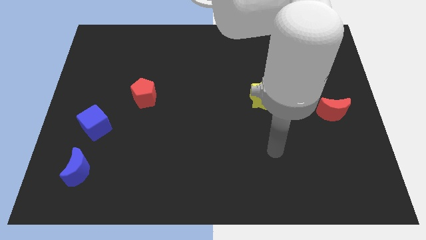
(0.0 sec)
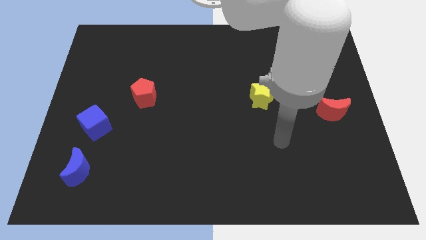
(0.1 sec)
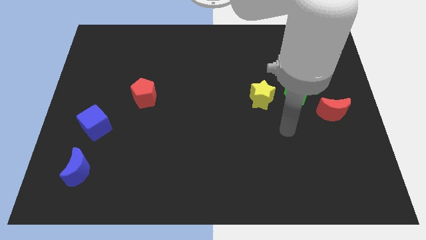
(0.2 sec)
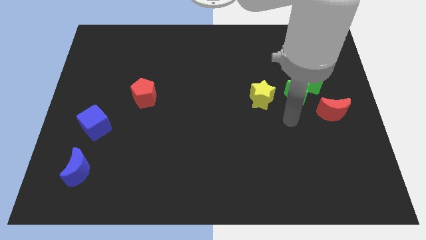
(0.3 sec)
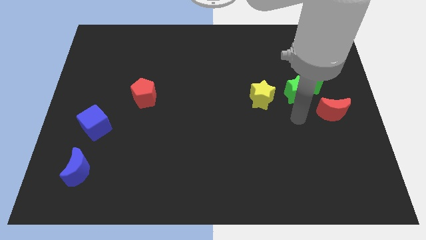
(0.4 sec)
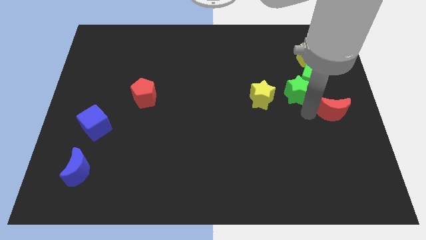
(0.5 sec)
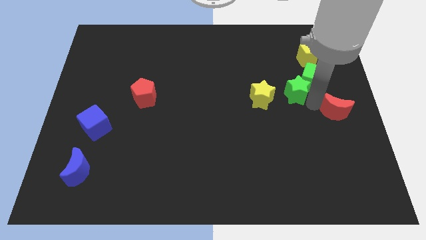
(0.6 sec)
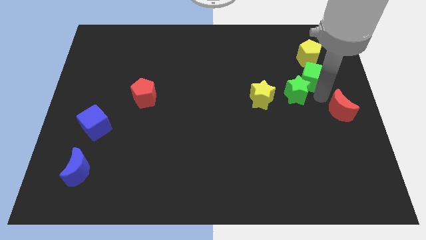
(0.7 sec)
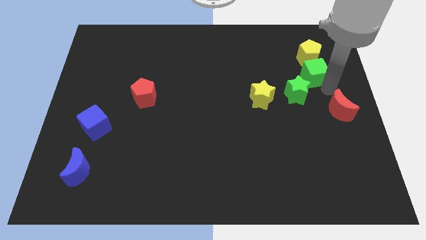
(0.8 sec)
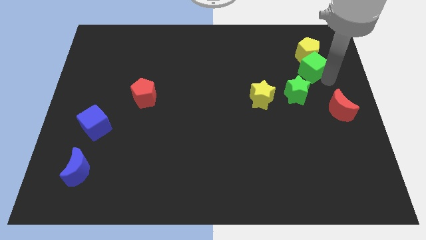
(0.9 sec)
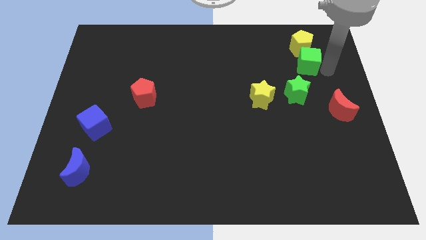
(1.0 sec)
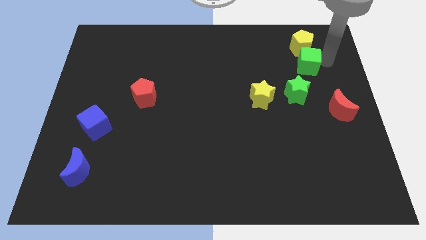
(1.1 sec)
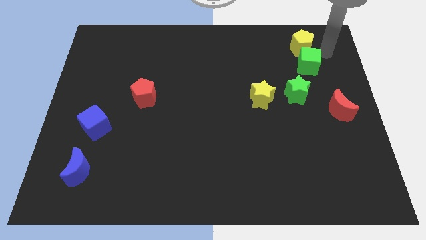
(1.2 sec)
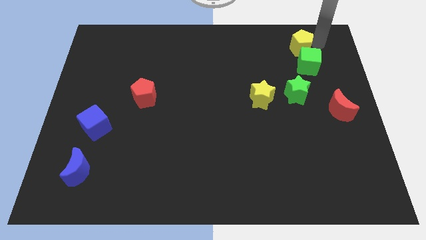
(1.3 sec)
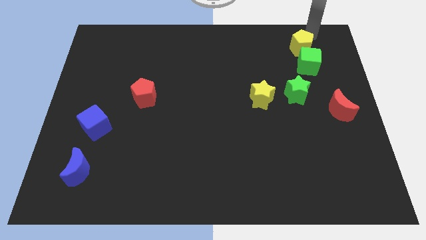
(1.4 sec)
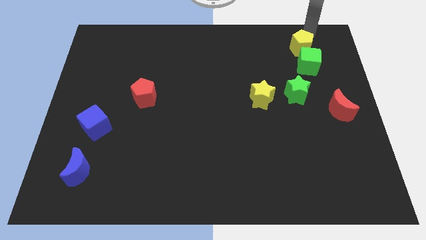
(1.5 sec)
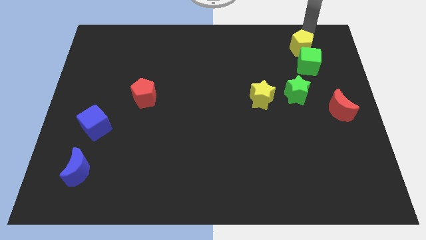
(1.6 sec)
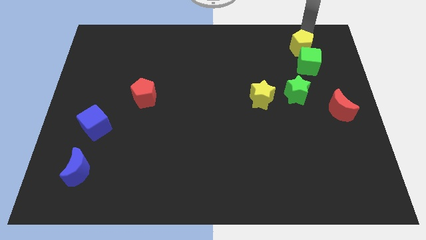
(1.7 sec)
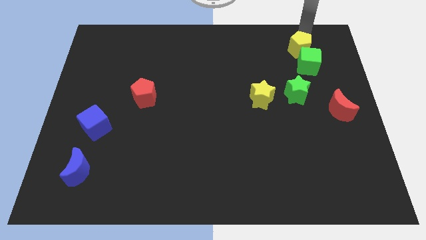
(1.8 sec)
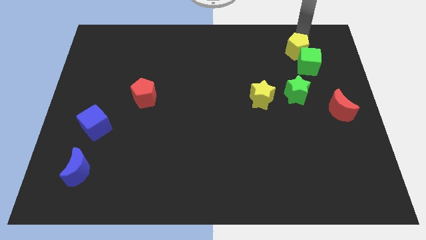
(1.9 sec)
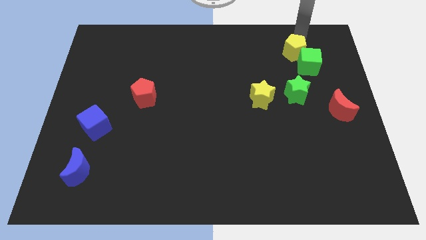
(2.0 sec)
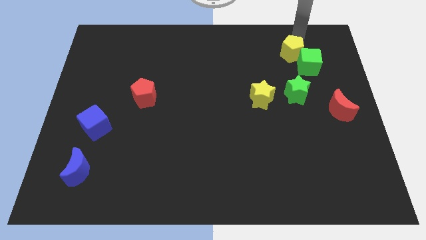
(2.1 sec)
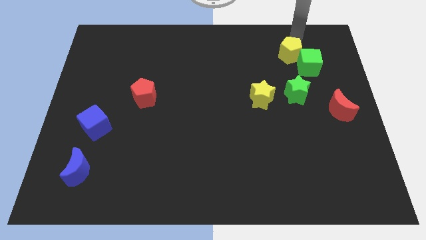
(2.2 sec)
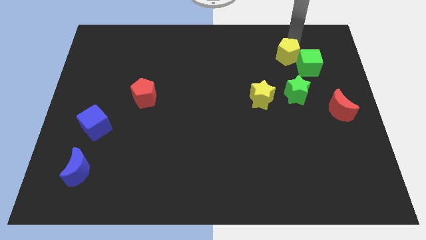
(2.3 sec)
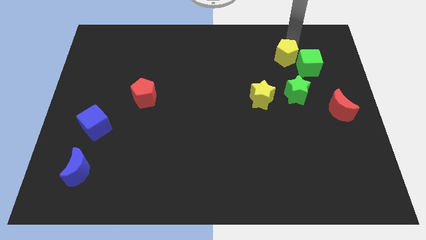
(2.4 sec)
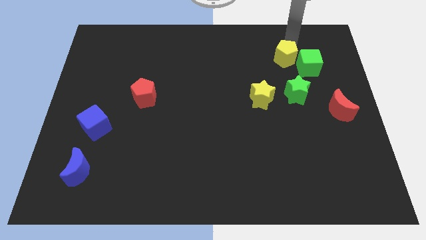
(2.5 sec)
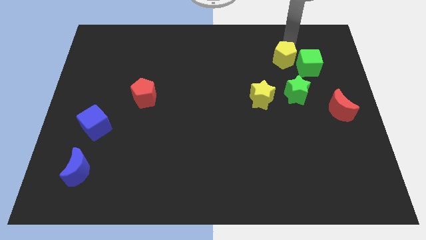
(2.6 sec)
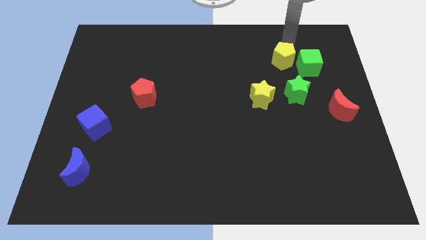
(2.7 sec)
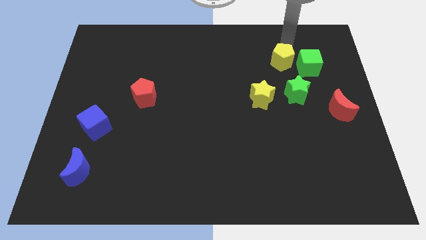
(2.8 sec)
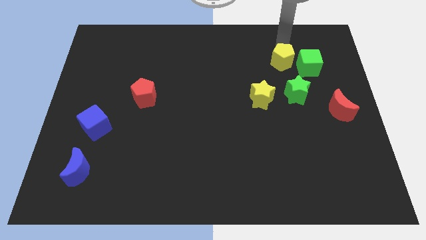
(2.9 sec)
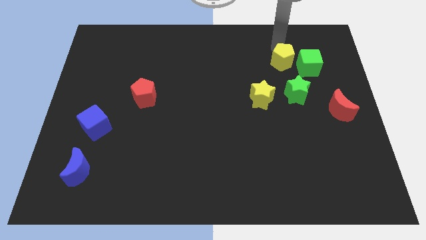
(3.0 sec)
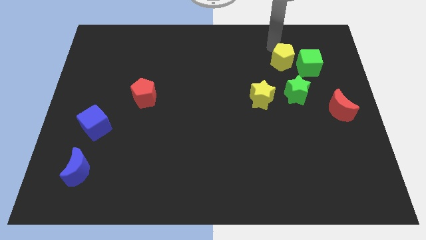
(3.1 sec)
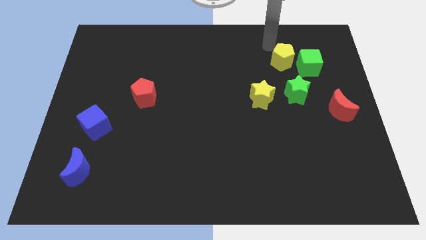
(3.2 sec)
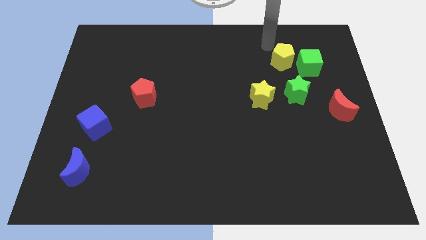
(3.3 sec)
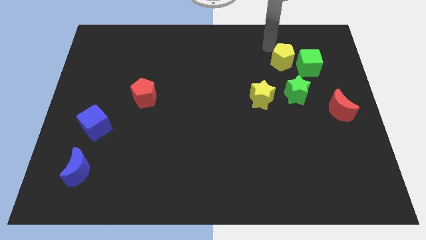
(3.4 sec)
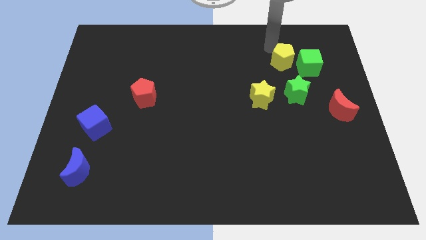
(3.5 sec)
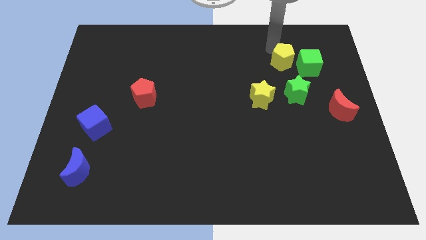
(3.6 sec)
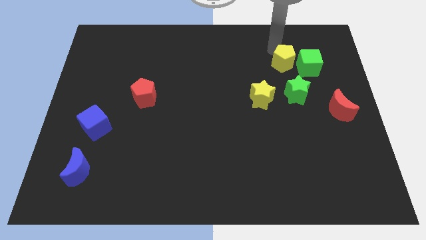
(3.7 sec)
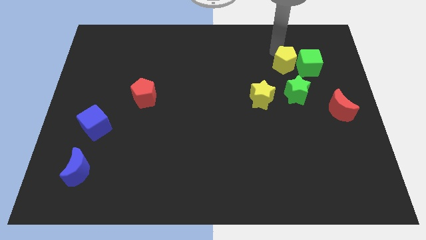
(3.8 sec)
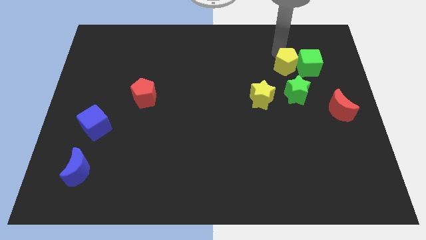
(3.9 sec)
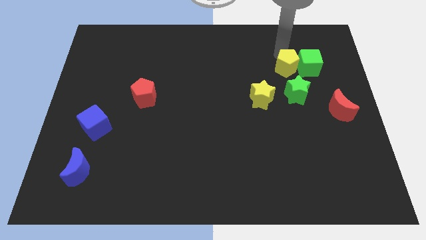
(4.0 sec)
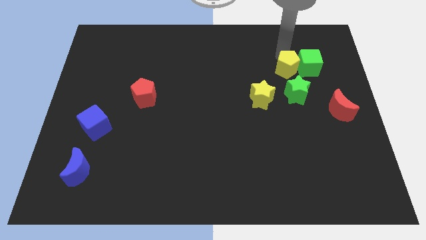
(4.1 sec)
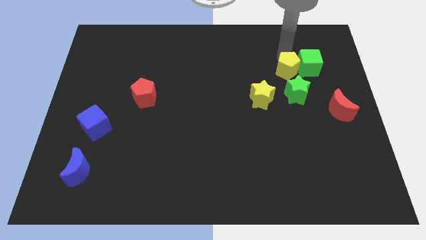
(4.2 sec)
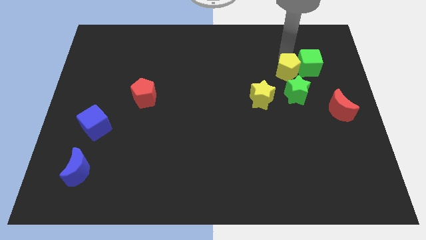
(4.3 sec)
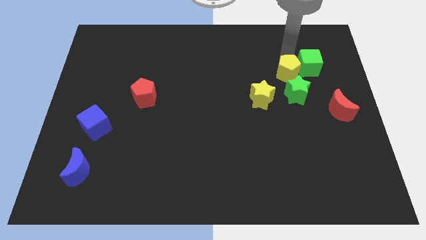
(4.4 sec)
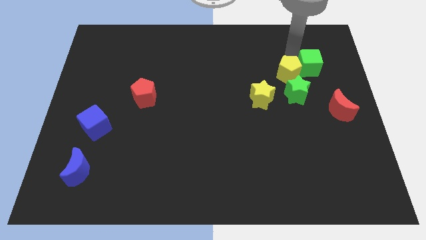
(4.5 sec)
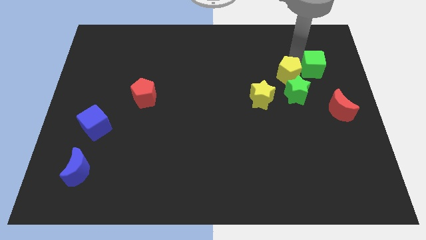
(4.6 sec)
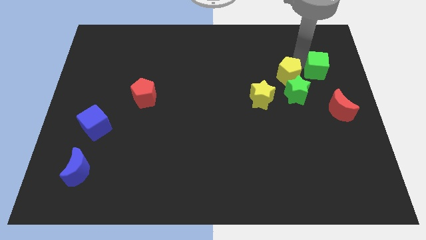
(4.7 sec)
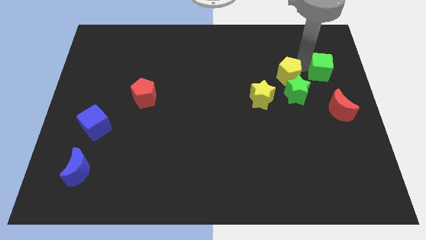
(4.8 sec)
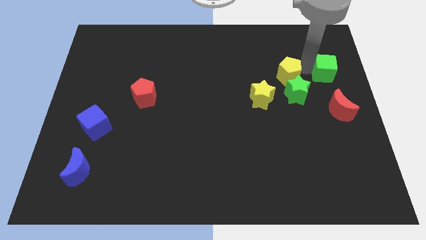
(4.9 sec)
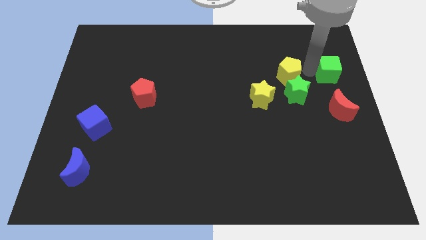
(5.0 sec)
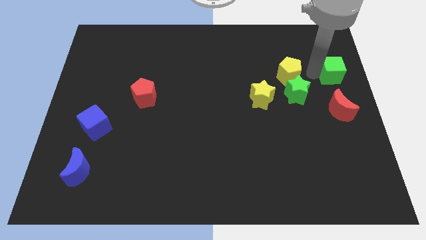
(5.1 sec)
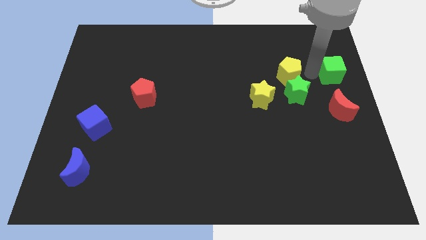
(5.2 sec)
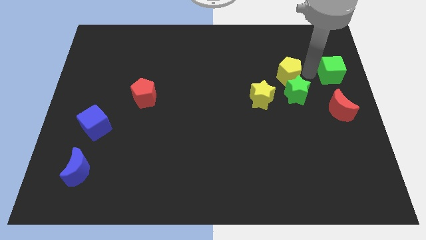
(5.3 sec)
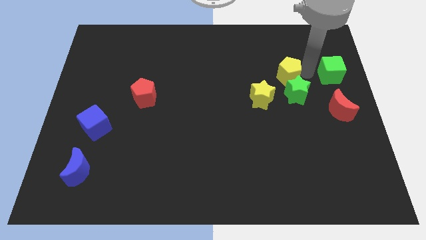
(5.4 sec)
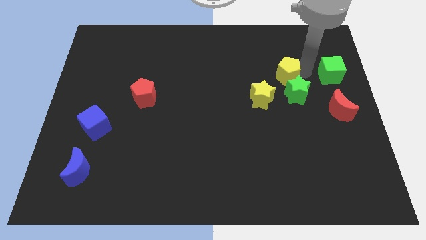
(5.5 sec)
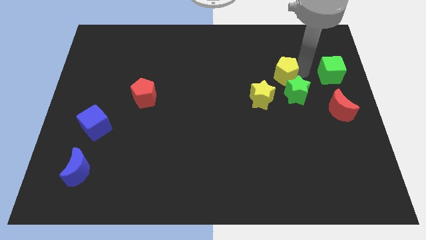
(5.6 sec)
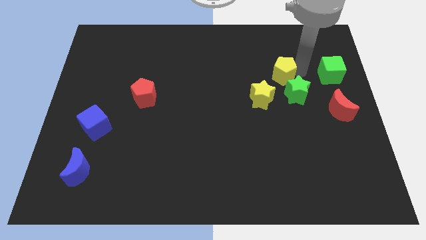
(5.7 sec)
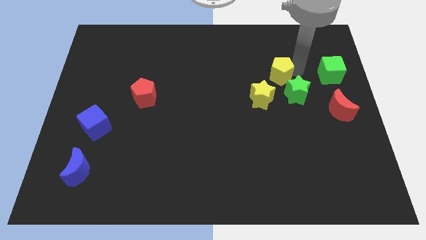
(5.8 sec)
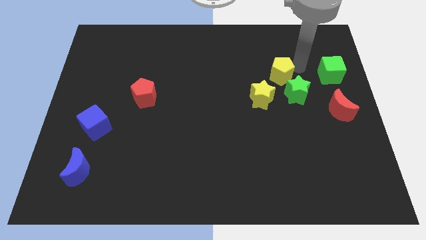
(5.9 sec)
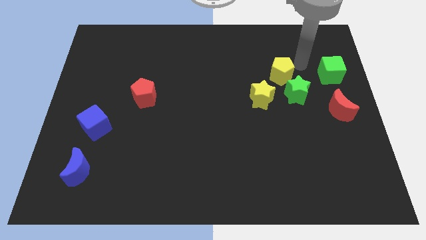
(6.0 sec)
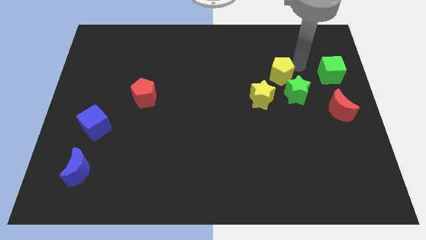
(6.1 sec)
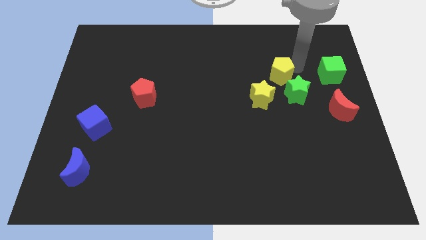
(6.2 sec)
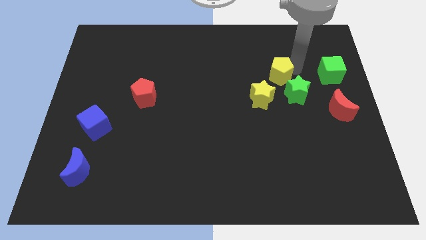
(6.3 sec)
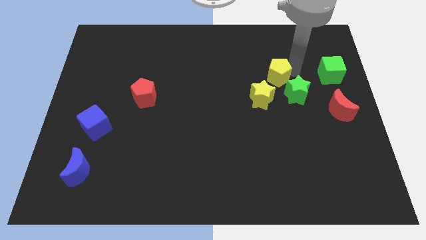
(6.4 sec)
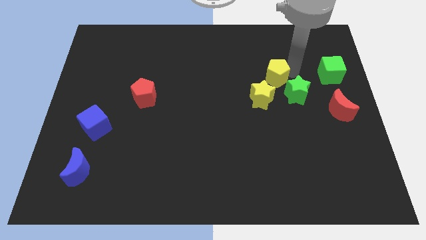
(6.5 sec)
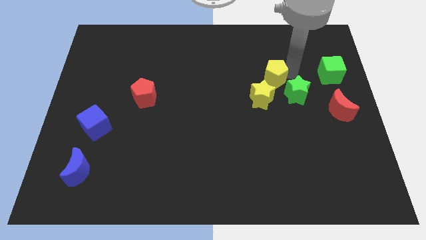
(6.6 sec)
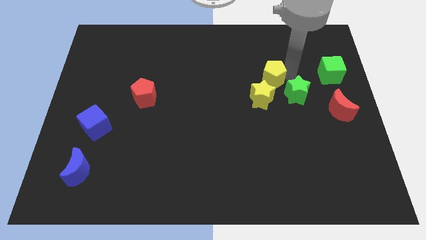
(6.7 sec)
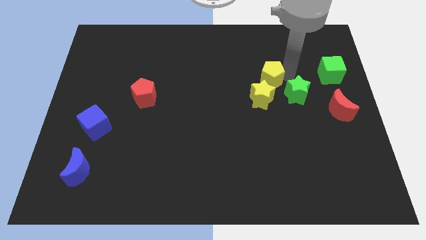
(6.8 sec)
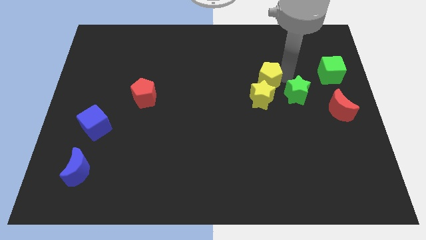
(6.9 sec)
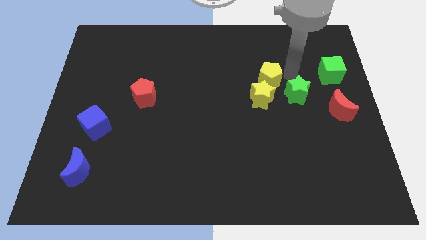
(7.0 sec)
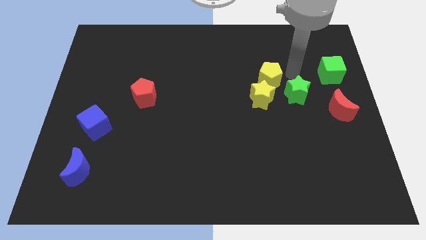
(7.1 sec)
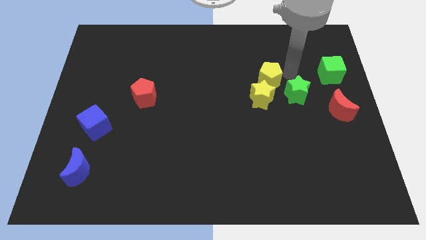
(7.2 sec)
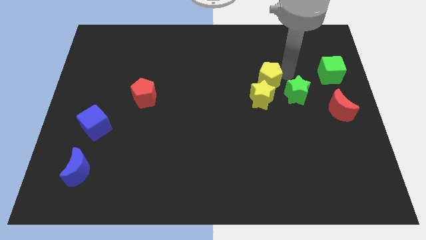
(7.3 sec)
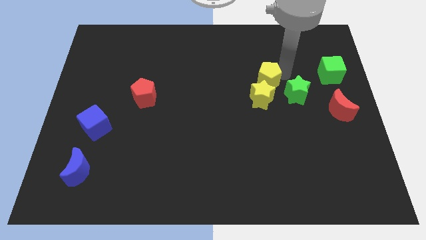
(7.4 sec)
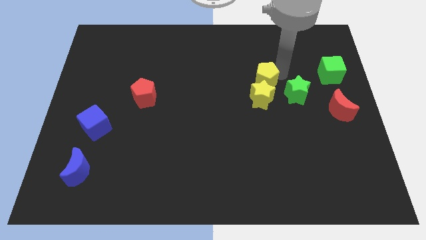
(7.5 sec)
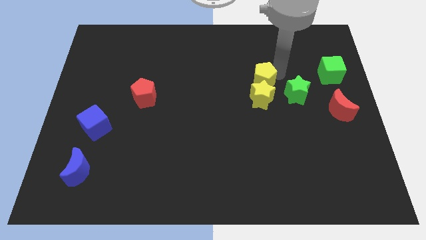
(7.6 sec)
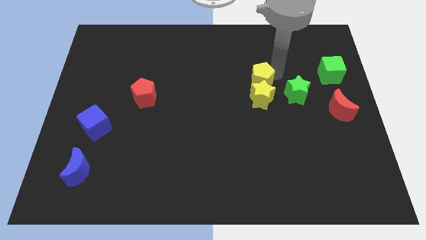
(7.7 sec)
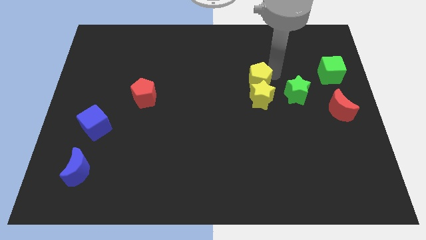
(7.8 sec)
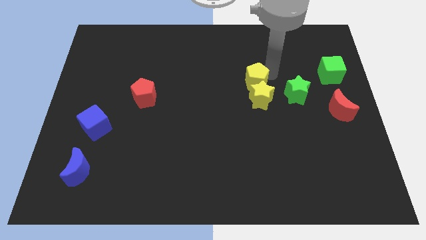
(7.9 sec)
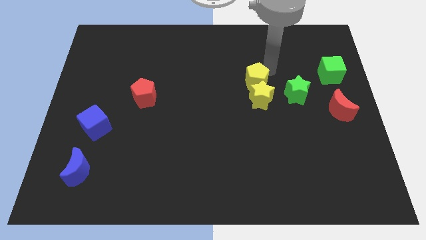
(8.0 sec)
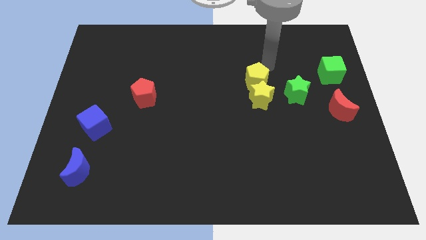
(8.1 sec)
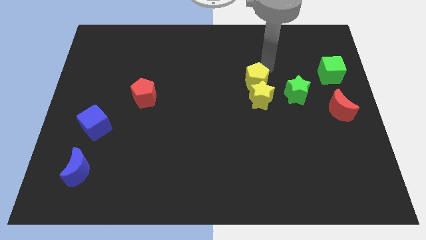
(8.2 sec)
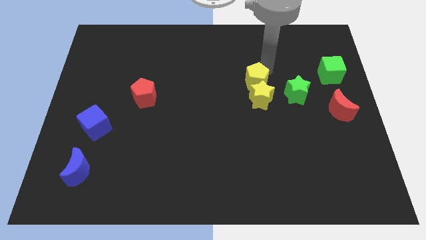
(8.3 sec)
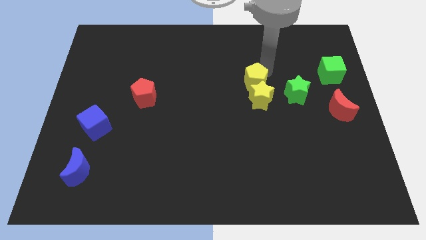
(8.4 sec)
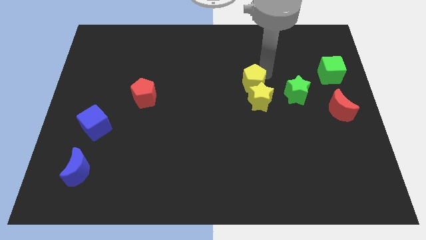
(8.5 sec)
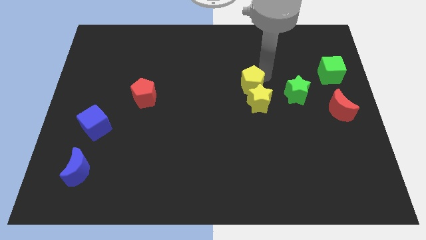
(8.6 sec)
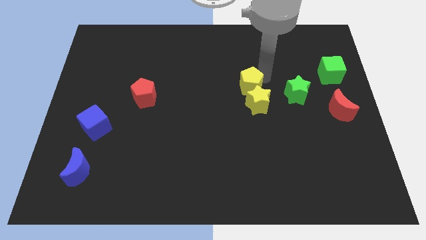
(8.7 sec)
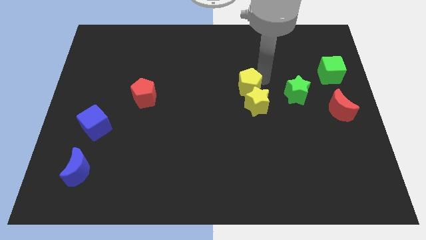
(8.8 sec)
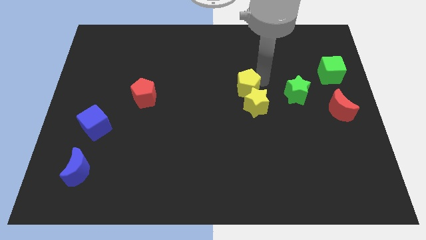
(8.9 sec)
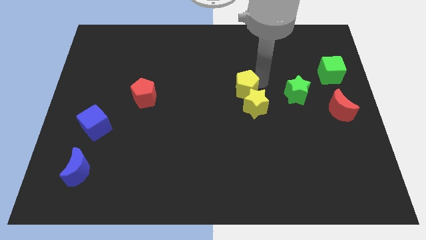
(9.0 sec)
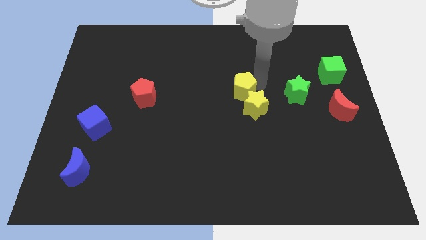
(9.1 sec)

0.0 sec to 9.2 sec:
slide the yellow pentagon downwards and left diagonally
